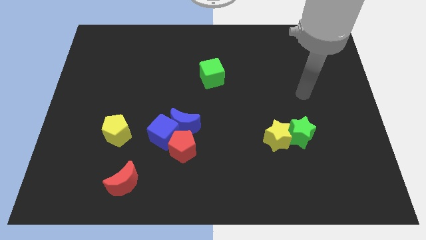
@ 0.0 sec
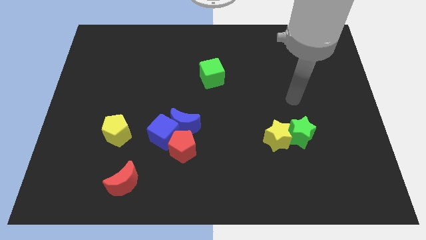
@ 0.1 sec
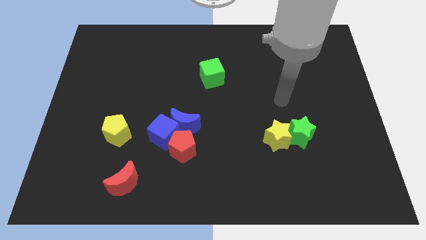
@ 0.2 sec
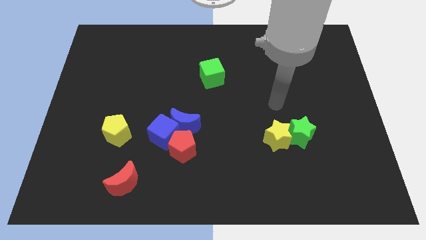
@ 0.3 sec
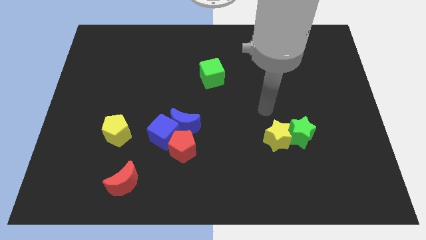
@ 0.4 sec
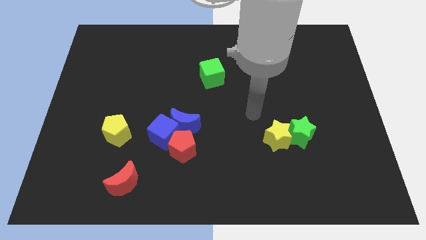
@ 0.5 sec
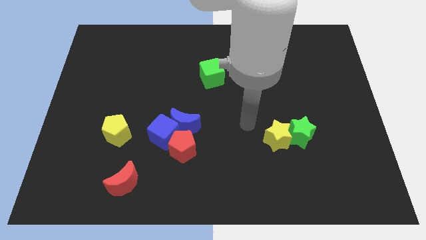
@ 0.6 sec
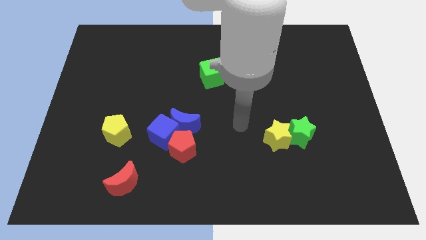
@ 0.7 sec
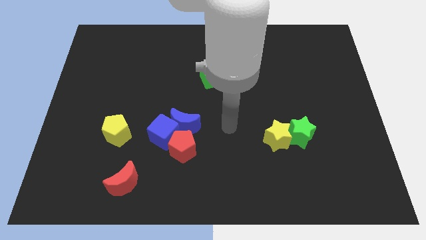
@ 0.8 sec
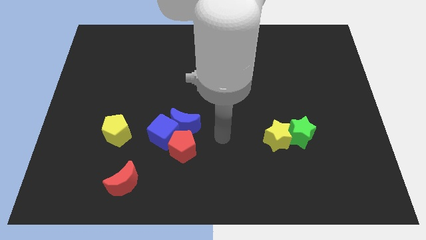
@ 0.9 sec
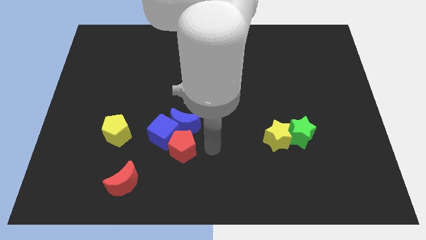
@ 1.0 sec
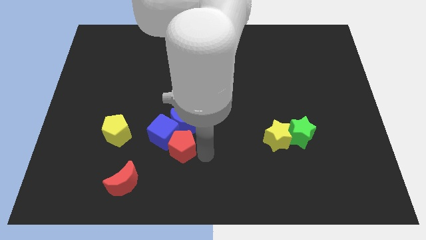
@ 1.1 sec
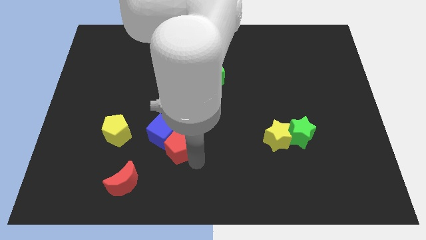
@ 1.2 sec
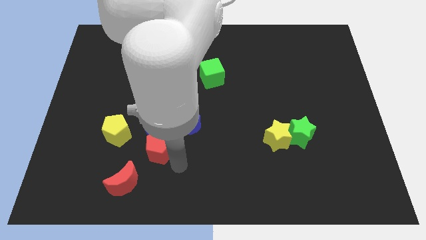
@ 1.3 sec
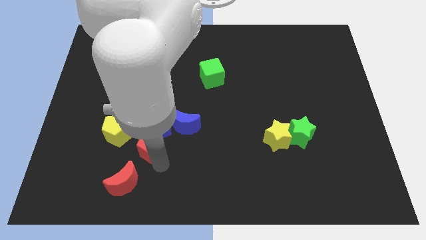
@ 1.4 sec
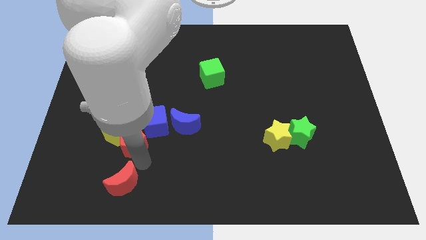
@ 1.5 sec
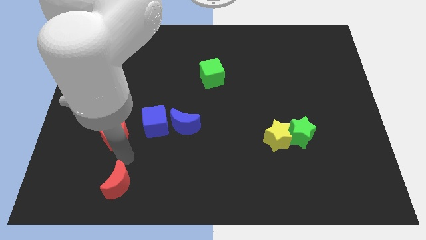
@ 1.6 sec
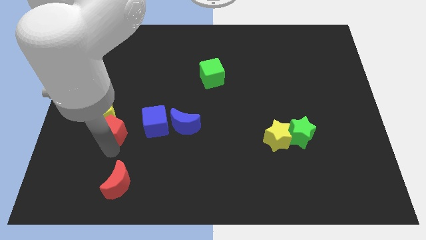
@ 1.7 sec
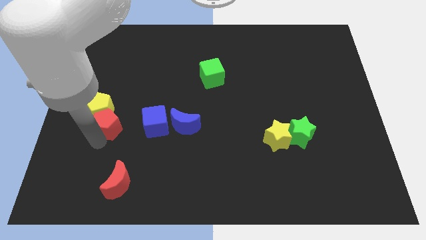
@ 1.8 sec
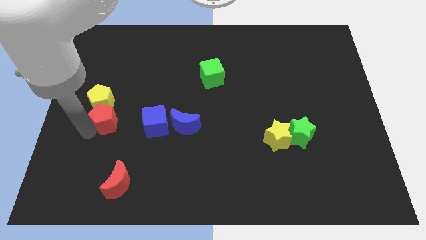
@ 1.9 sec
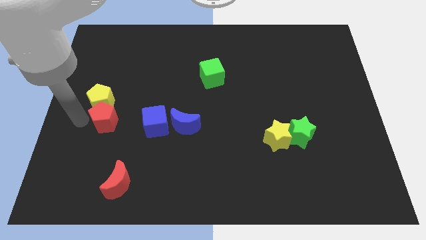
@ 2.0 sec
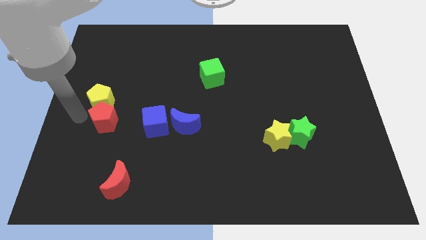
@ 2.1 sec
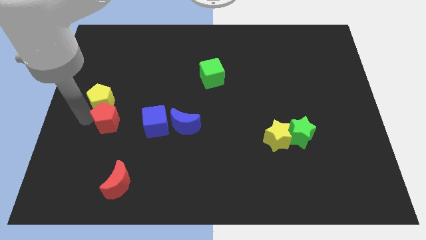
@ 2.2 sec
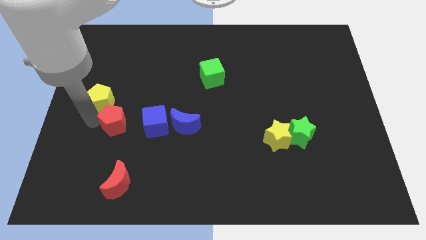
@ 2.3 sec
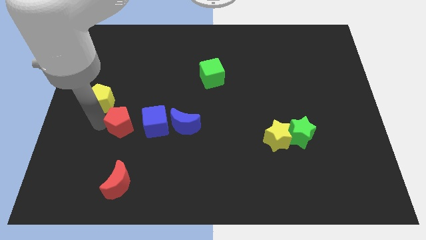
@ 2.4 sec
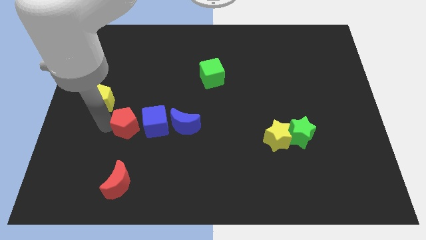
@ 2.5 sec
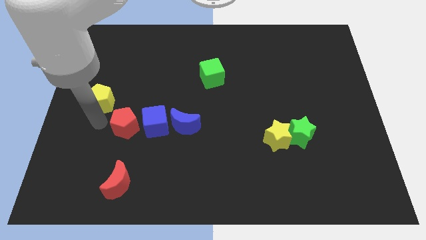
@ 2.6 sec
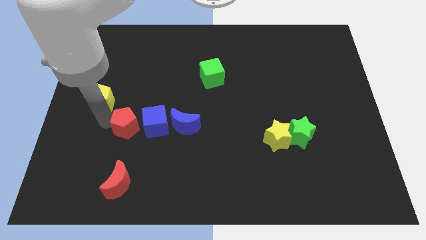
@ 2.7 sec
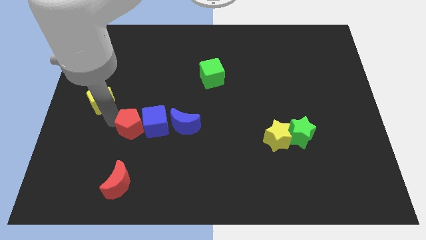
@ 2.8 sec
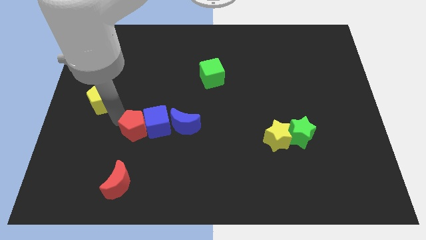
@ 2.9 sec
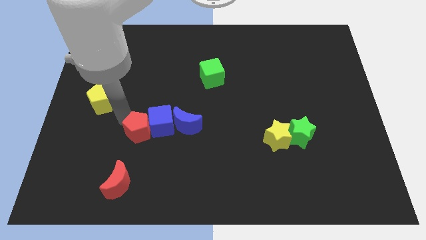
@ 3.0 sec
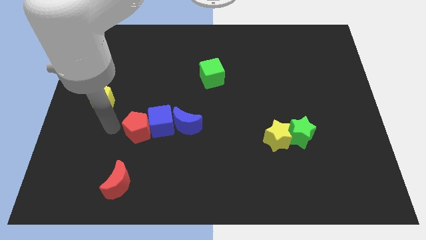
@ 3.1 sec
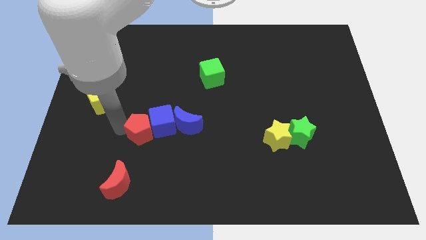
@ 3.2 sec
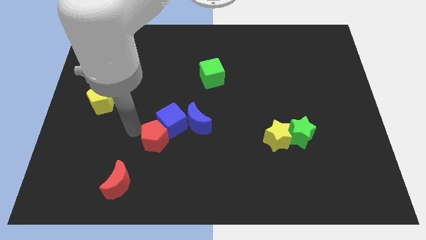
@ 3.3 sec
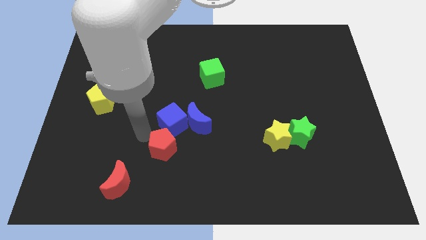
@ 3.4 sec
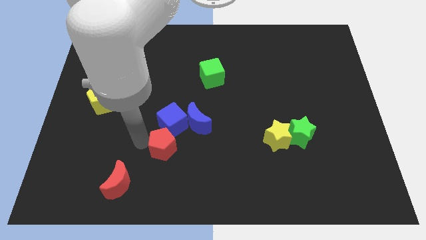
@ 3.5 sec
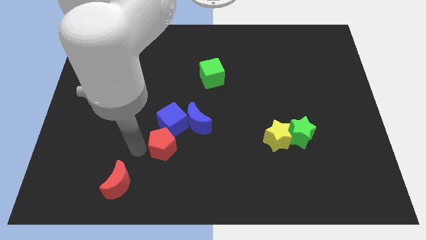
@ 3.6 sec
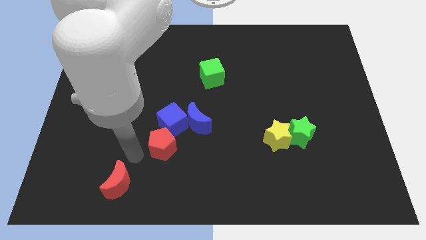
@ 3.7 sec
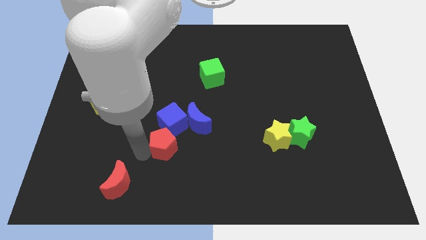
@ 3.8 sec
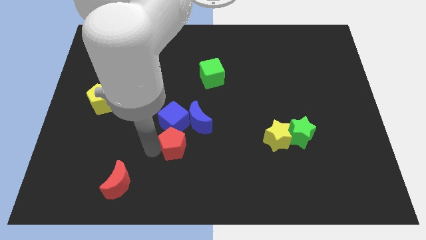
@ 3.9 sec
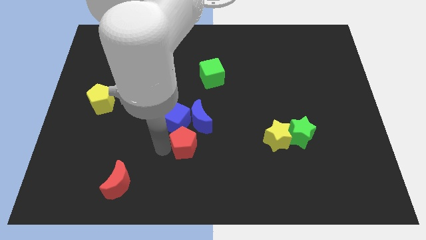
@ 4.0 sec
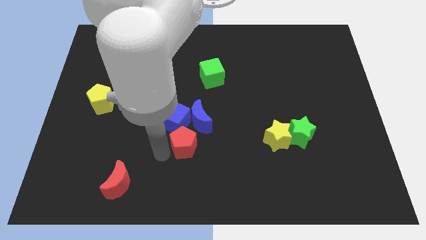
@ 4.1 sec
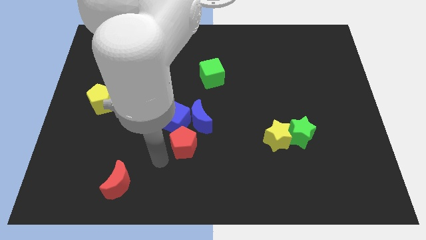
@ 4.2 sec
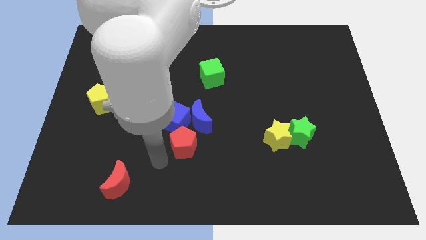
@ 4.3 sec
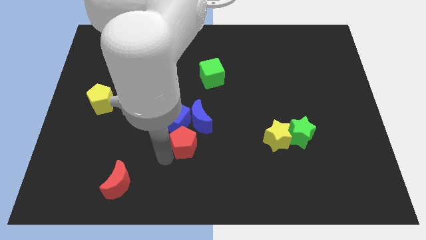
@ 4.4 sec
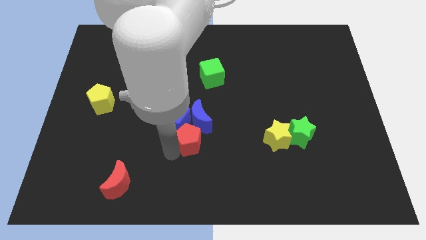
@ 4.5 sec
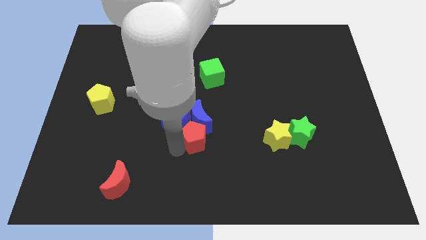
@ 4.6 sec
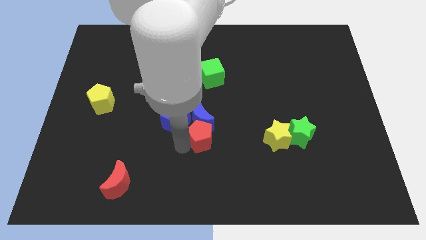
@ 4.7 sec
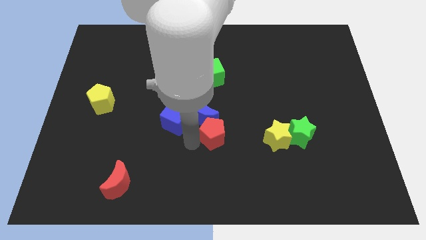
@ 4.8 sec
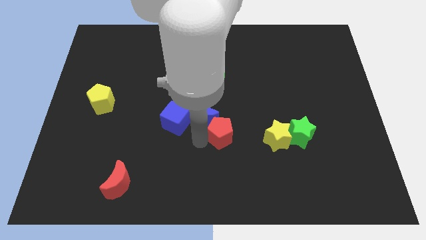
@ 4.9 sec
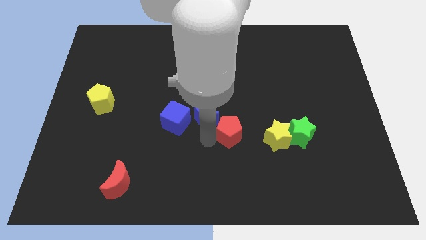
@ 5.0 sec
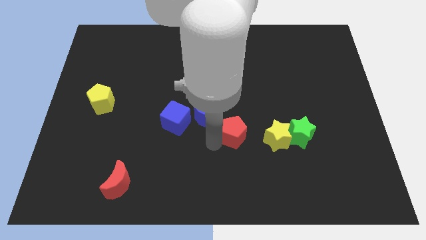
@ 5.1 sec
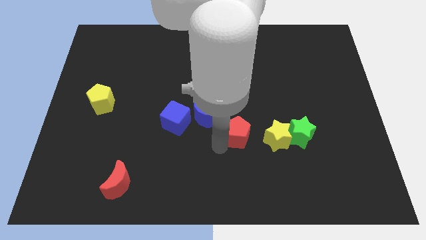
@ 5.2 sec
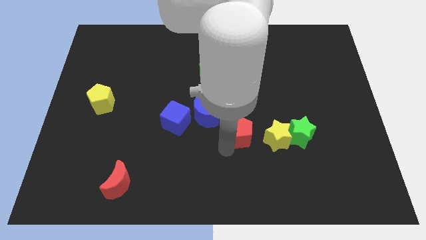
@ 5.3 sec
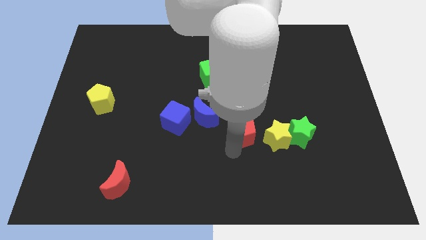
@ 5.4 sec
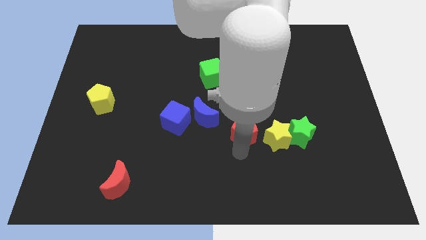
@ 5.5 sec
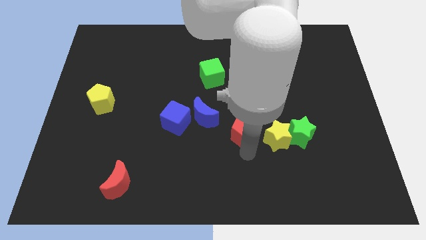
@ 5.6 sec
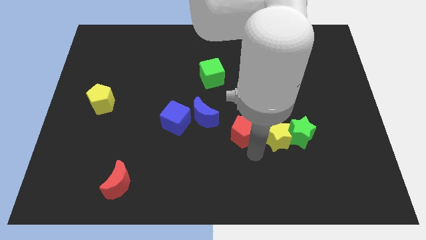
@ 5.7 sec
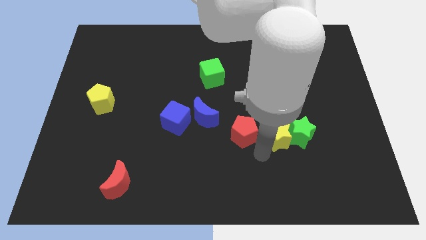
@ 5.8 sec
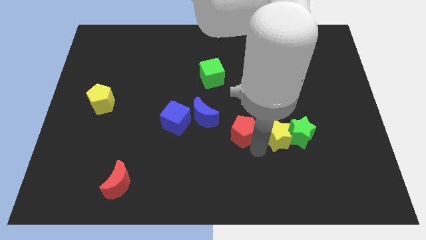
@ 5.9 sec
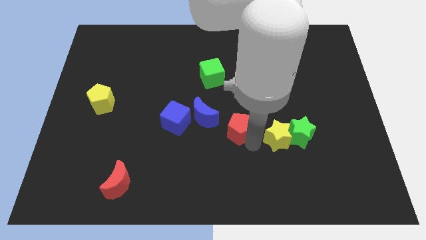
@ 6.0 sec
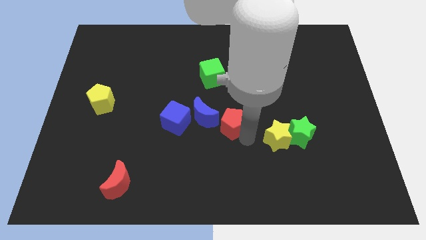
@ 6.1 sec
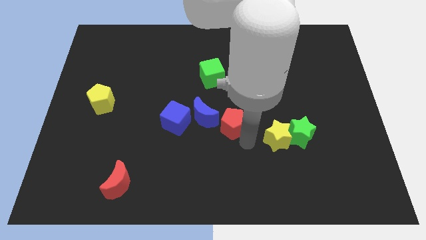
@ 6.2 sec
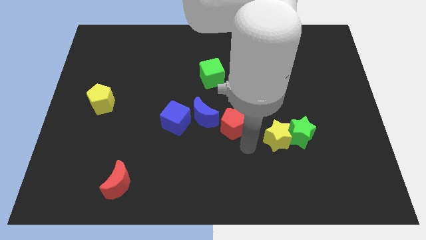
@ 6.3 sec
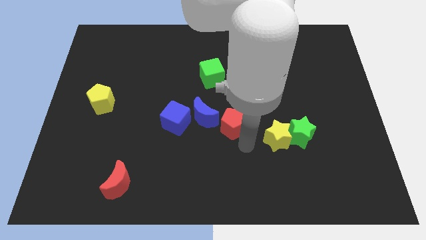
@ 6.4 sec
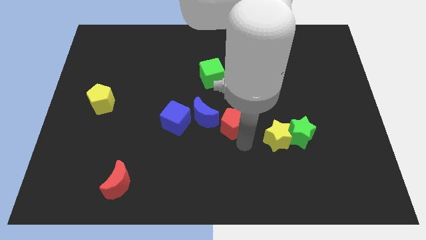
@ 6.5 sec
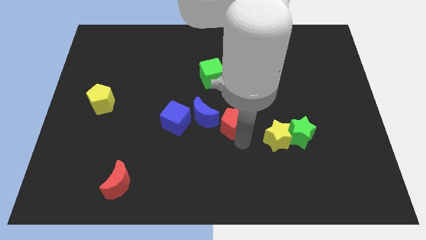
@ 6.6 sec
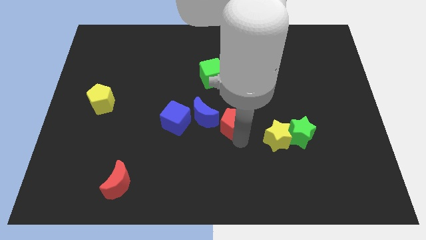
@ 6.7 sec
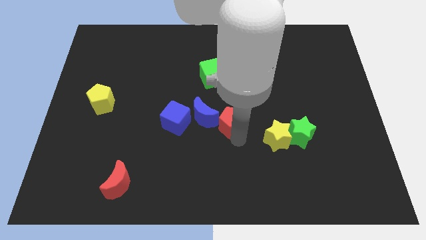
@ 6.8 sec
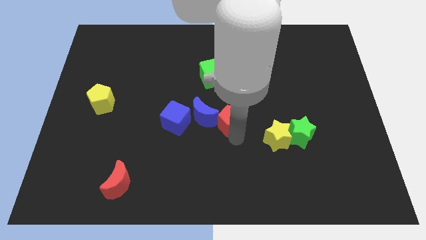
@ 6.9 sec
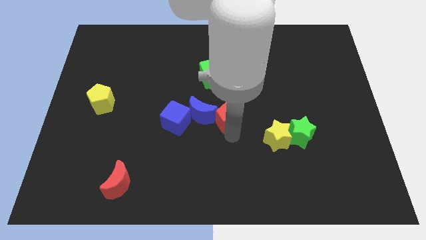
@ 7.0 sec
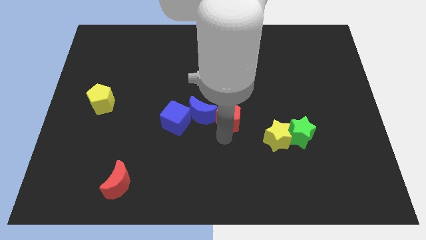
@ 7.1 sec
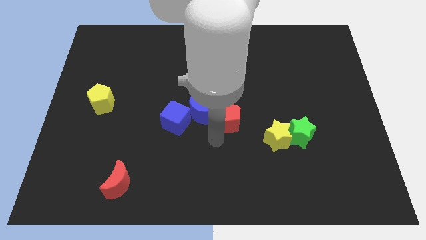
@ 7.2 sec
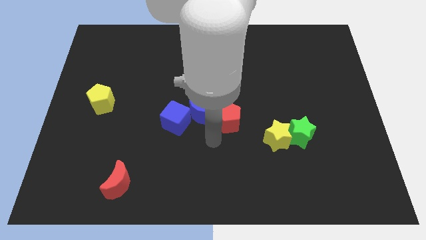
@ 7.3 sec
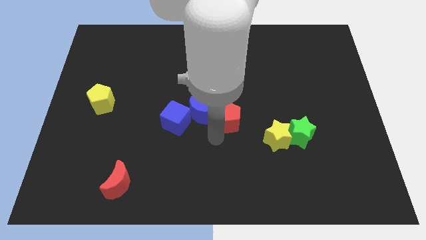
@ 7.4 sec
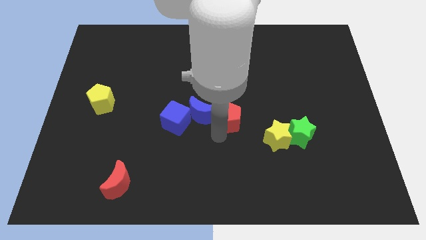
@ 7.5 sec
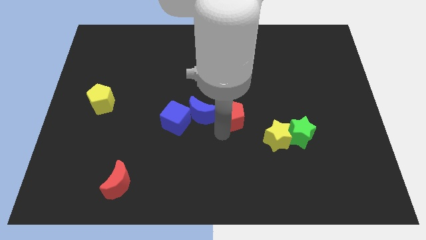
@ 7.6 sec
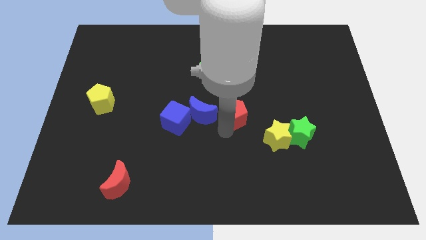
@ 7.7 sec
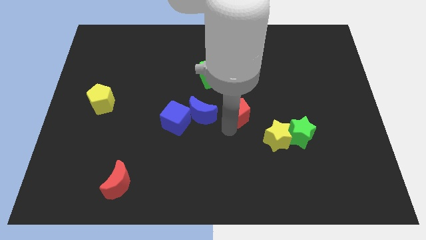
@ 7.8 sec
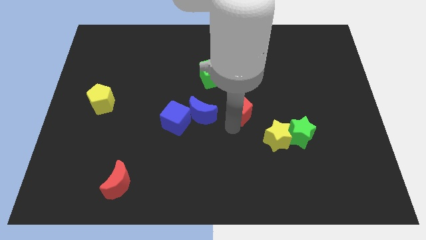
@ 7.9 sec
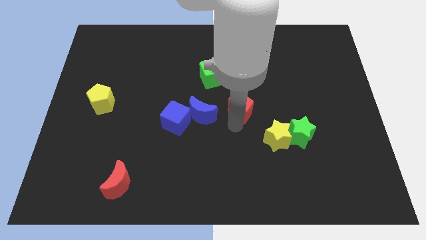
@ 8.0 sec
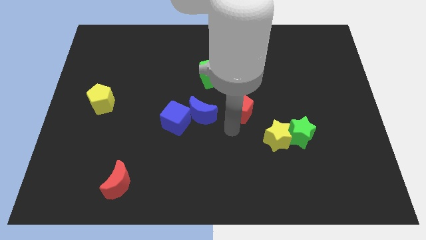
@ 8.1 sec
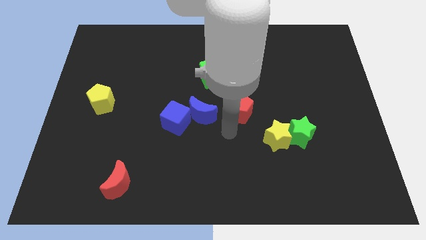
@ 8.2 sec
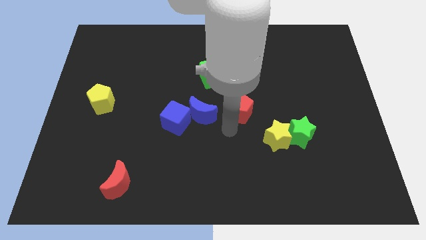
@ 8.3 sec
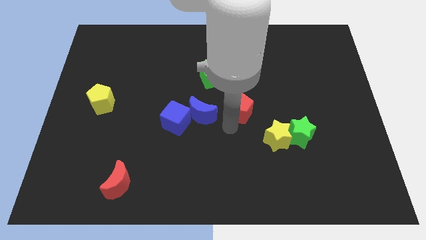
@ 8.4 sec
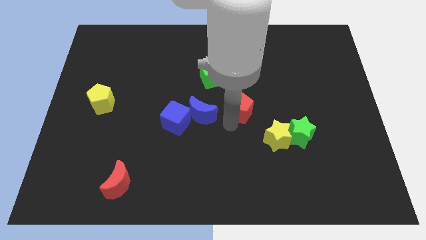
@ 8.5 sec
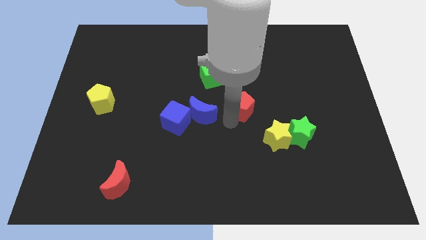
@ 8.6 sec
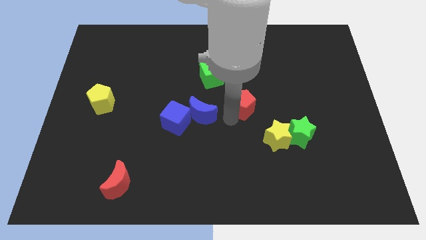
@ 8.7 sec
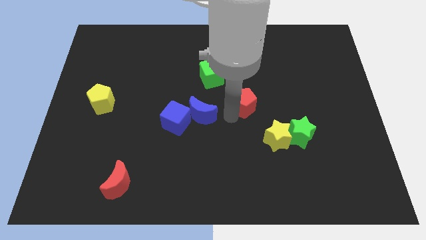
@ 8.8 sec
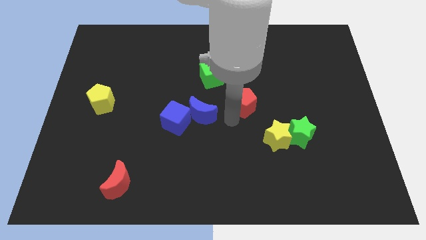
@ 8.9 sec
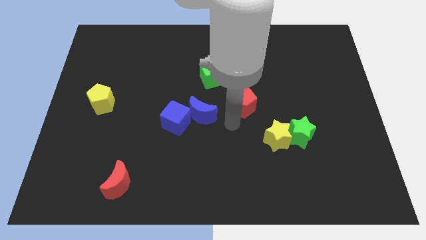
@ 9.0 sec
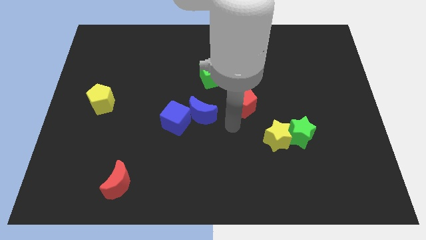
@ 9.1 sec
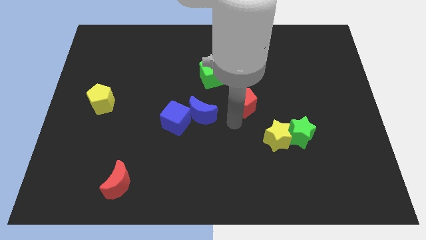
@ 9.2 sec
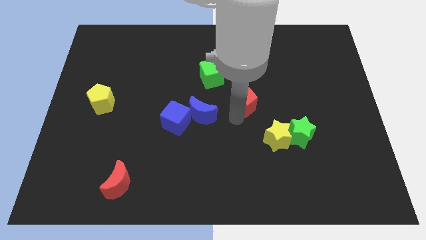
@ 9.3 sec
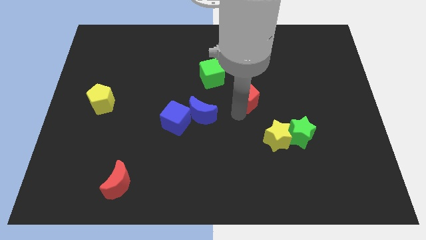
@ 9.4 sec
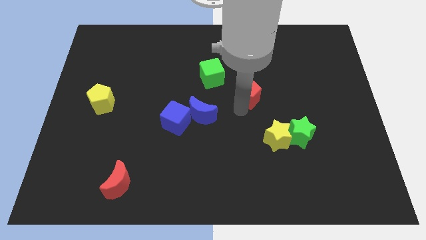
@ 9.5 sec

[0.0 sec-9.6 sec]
slide the red pentagon upwards and right diagonally
